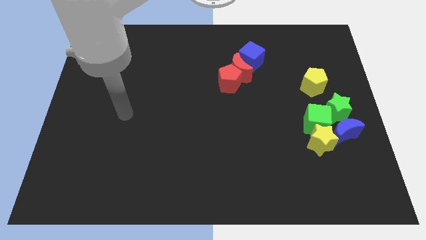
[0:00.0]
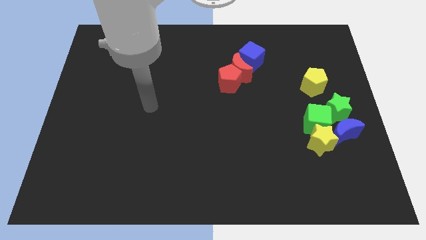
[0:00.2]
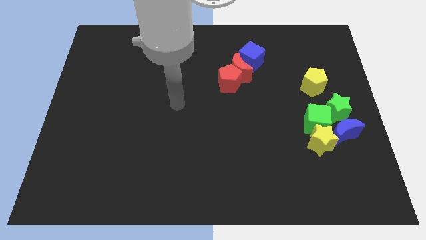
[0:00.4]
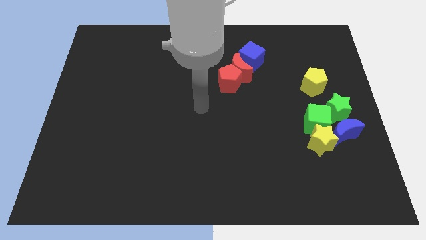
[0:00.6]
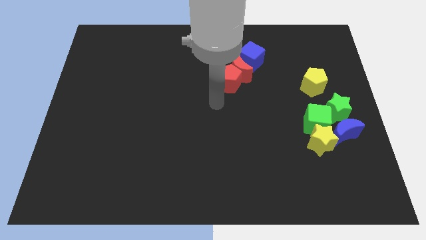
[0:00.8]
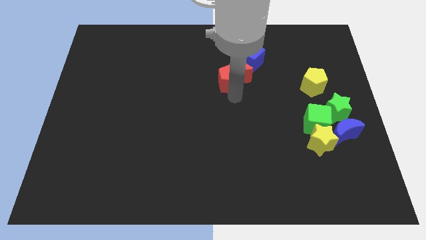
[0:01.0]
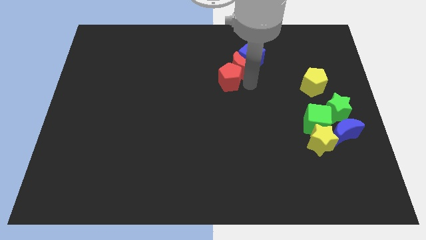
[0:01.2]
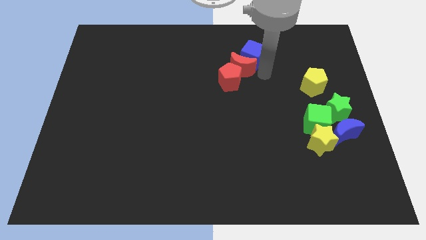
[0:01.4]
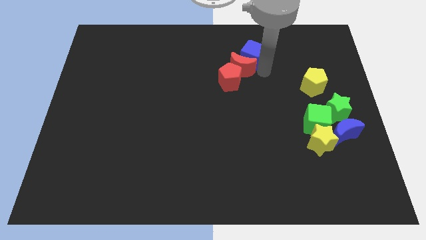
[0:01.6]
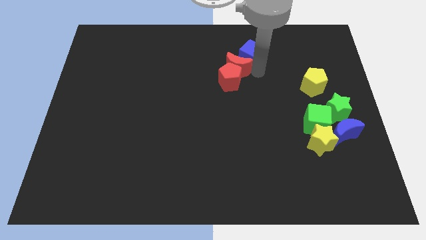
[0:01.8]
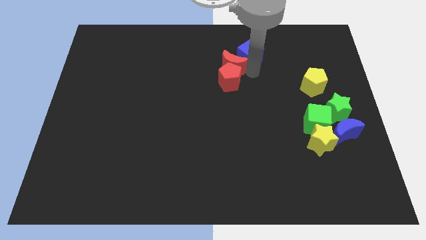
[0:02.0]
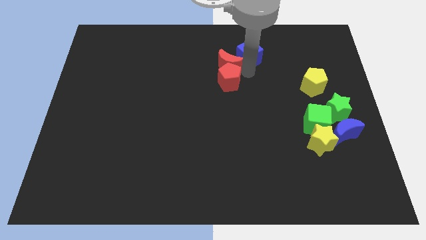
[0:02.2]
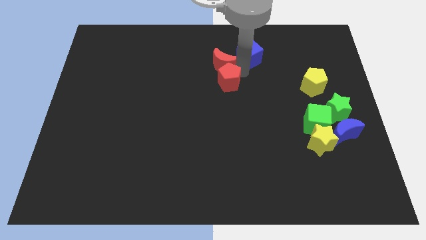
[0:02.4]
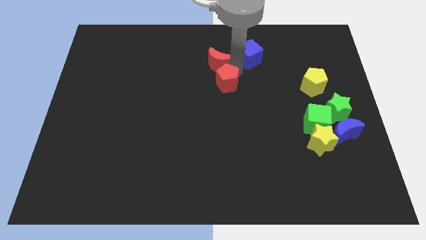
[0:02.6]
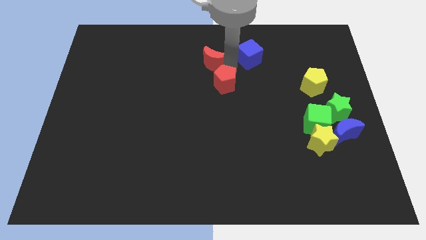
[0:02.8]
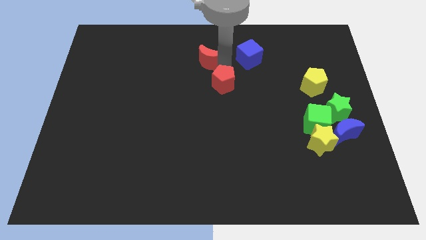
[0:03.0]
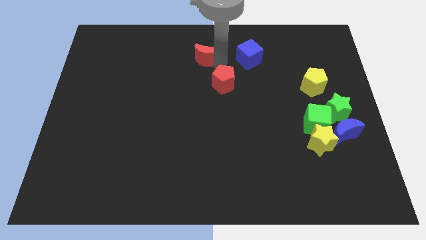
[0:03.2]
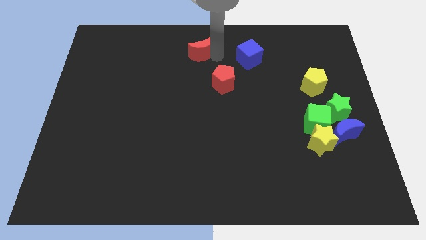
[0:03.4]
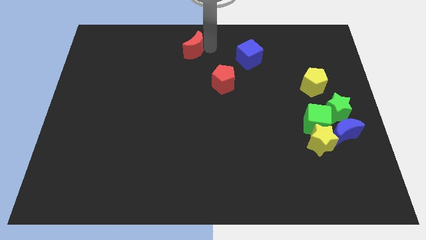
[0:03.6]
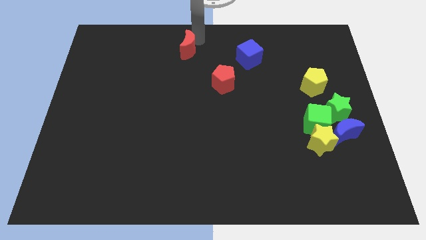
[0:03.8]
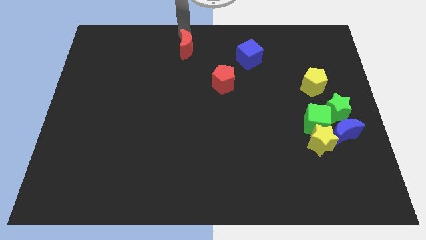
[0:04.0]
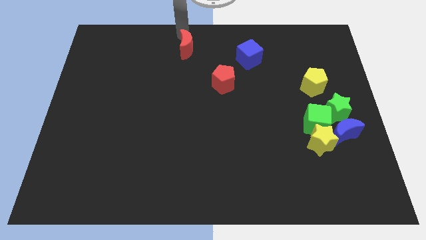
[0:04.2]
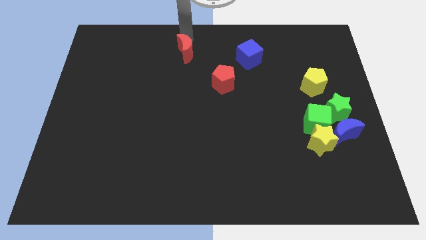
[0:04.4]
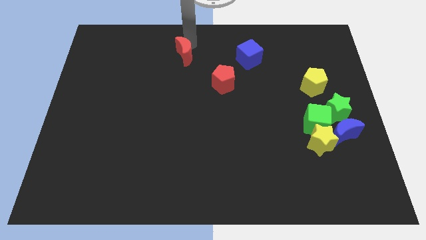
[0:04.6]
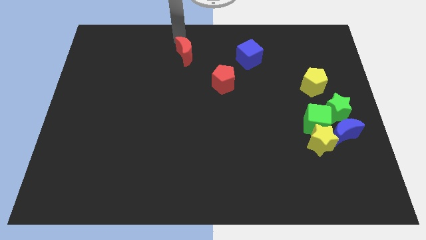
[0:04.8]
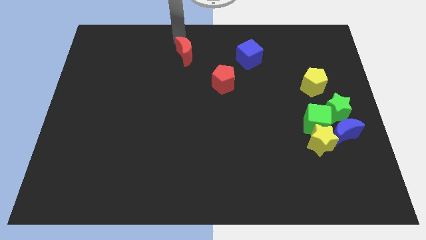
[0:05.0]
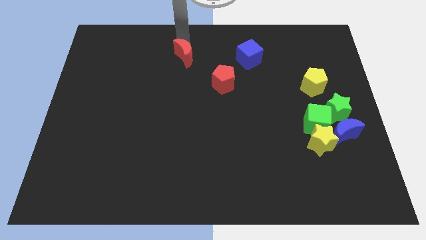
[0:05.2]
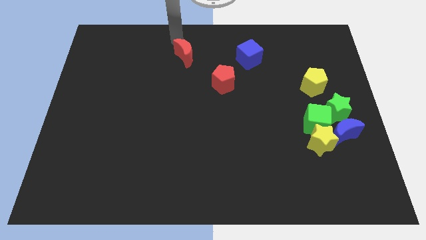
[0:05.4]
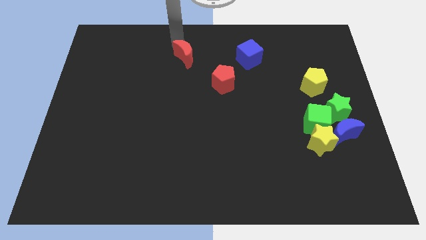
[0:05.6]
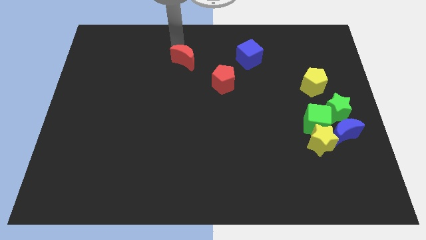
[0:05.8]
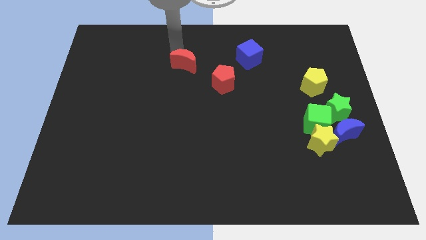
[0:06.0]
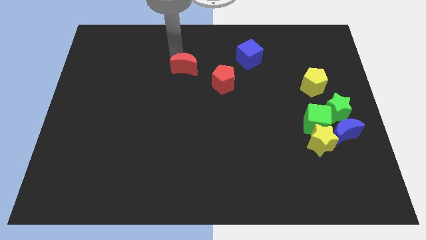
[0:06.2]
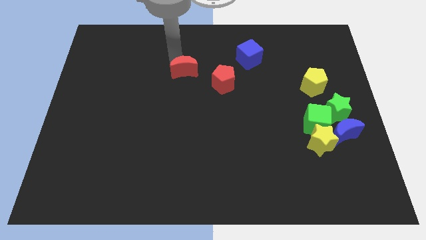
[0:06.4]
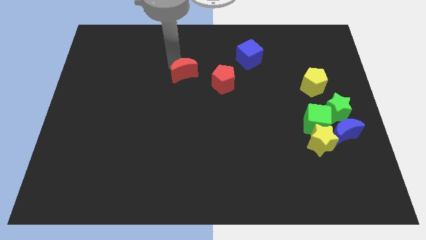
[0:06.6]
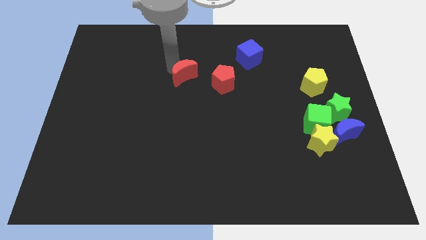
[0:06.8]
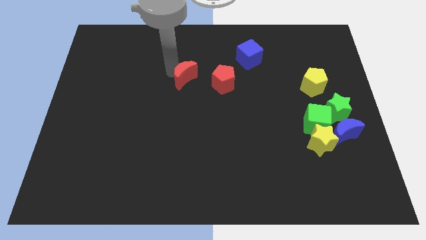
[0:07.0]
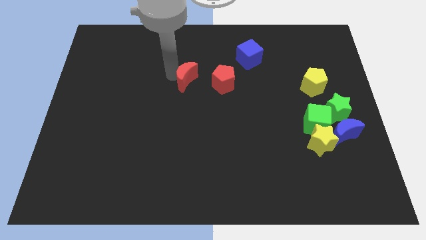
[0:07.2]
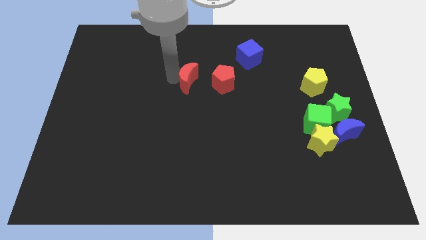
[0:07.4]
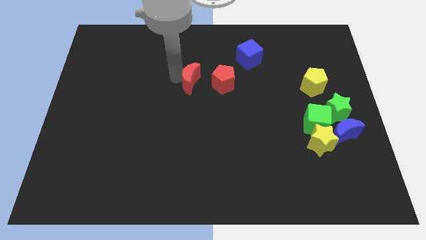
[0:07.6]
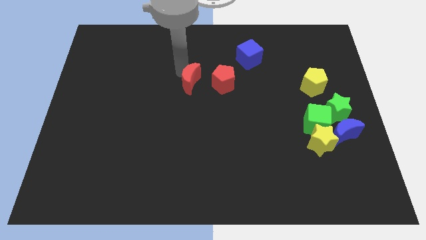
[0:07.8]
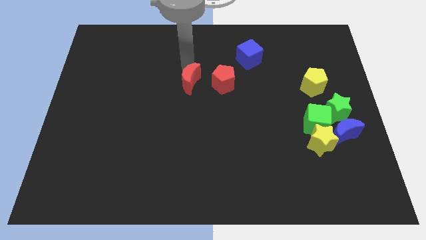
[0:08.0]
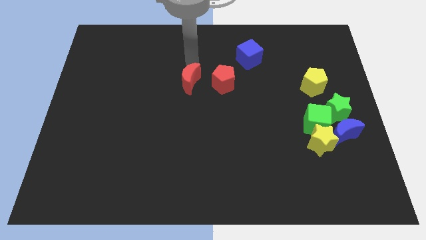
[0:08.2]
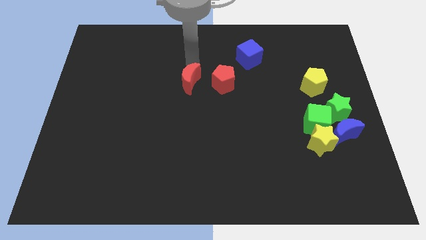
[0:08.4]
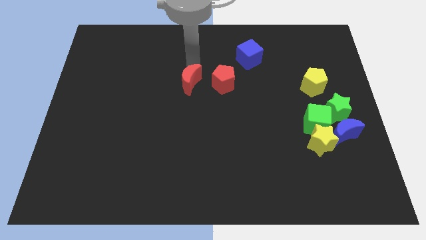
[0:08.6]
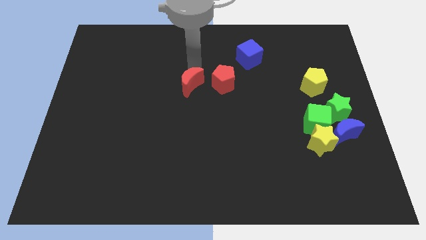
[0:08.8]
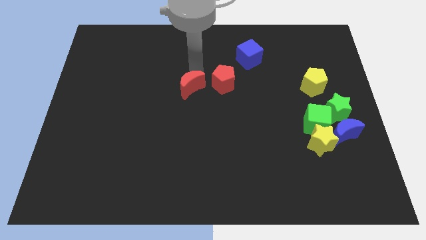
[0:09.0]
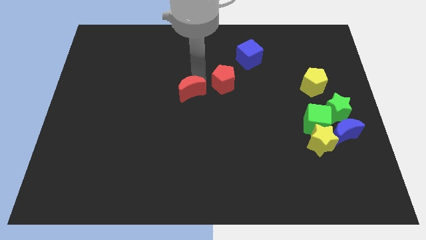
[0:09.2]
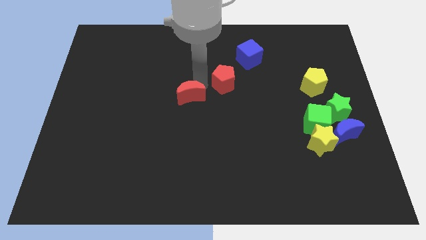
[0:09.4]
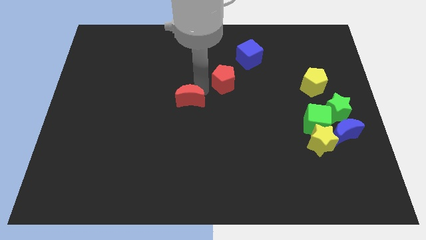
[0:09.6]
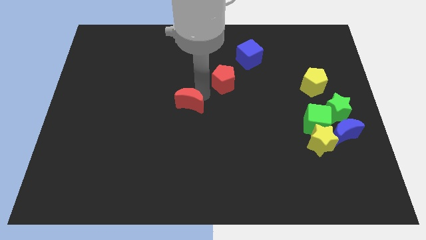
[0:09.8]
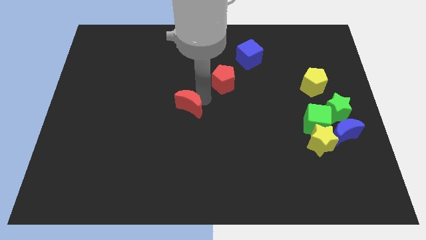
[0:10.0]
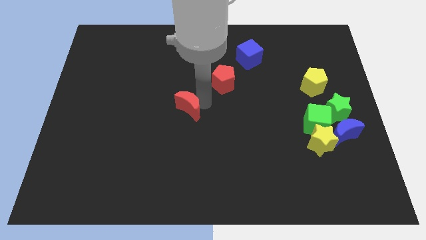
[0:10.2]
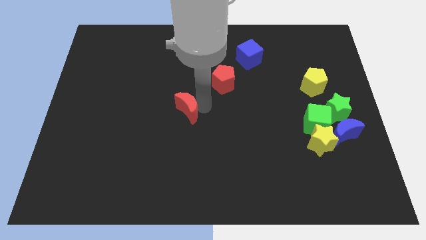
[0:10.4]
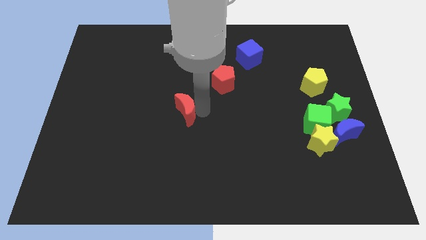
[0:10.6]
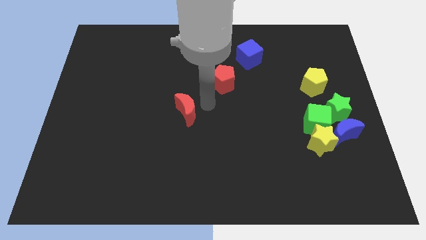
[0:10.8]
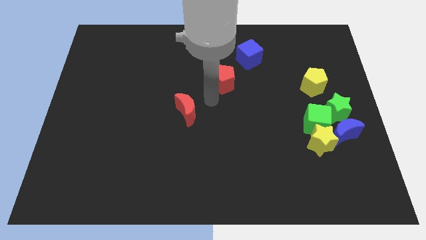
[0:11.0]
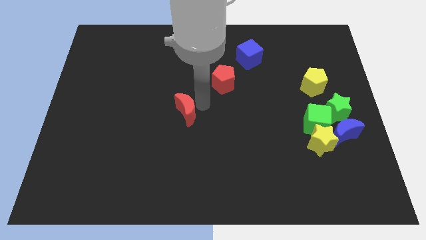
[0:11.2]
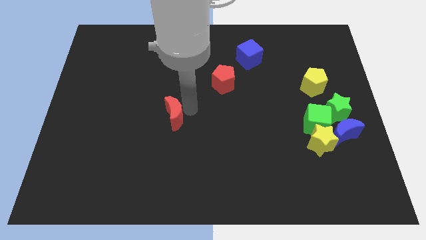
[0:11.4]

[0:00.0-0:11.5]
move the red moon diagonally downwards and left

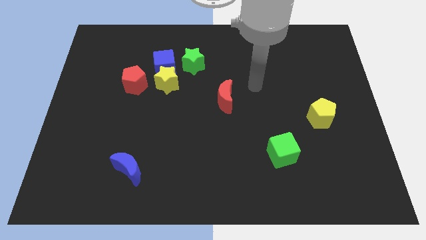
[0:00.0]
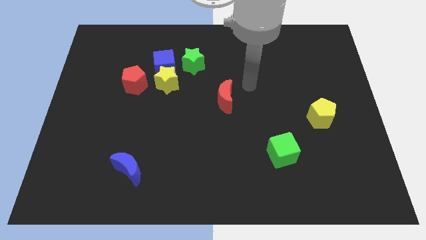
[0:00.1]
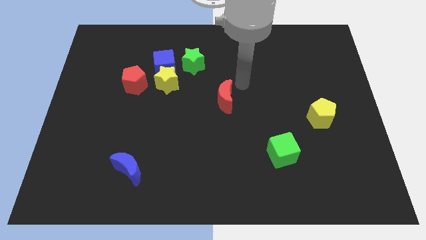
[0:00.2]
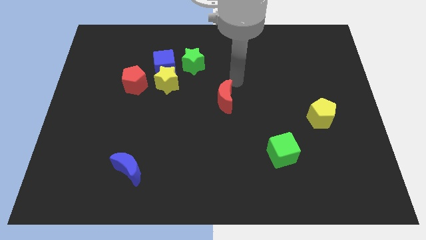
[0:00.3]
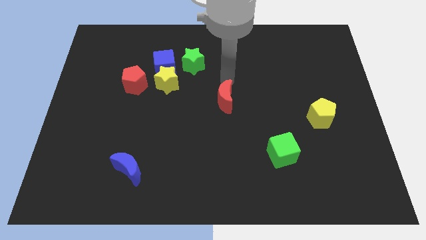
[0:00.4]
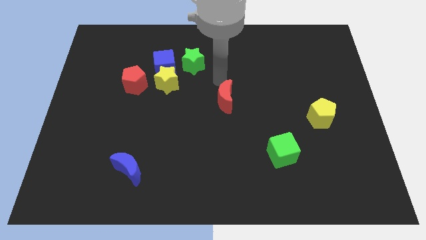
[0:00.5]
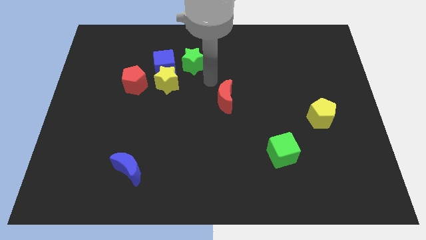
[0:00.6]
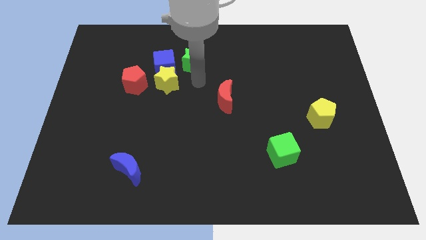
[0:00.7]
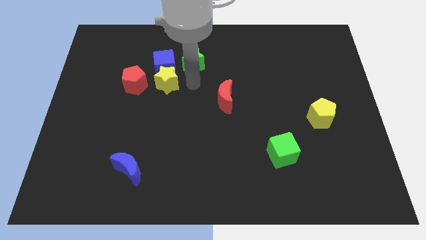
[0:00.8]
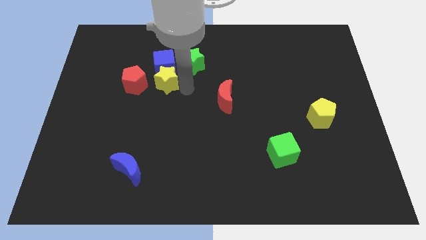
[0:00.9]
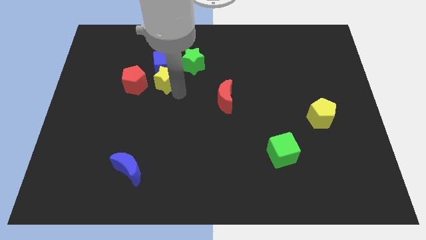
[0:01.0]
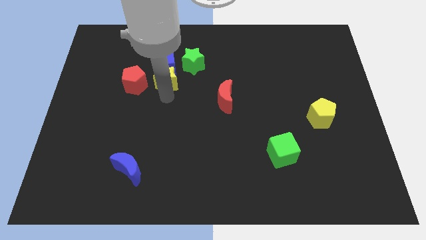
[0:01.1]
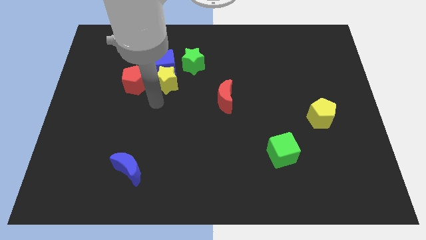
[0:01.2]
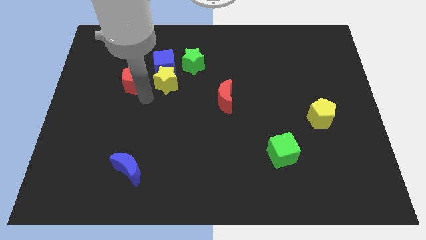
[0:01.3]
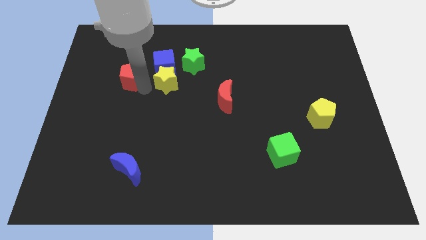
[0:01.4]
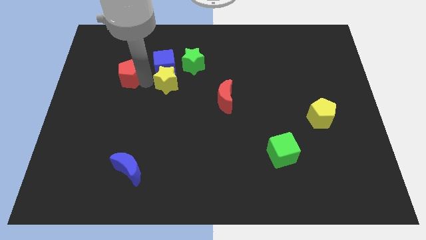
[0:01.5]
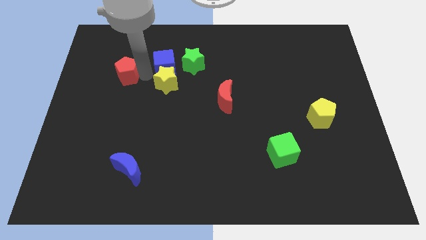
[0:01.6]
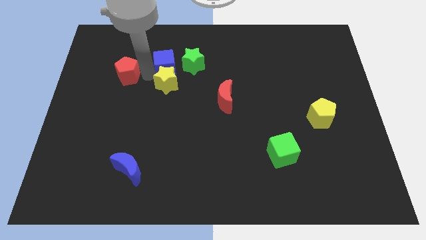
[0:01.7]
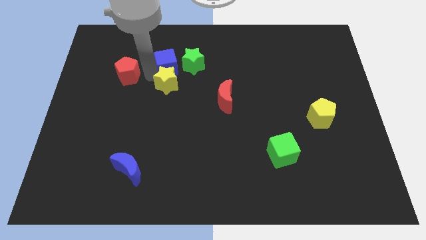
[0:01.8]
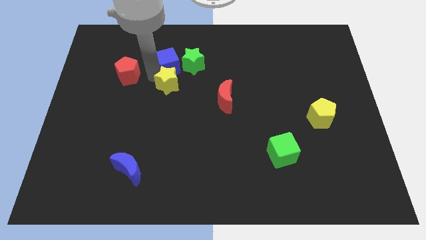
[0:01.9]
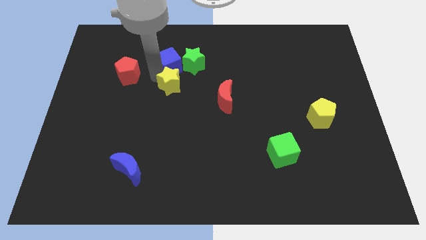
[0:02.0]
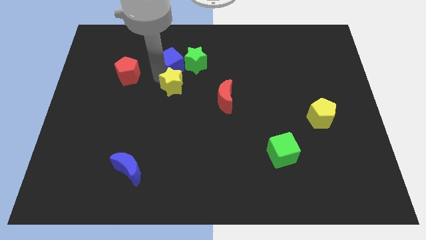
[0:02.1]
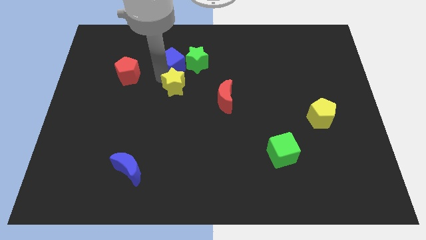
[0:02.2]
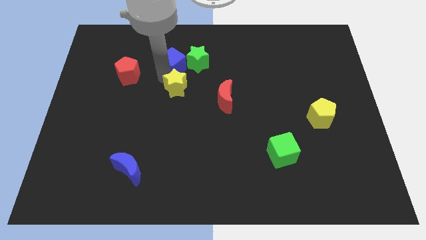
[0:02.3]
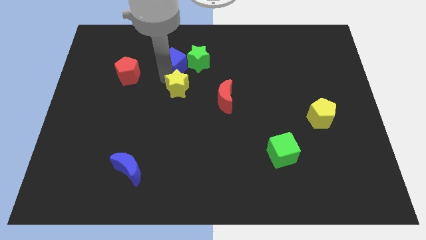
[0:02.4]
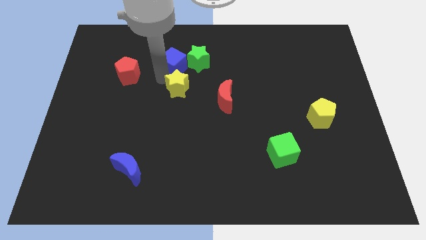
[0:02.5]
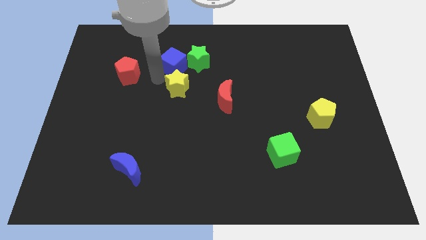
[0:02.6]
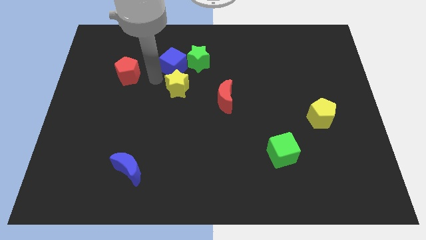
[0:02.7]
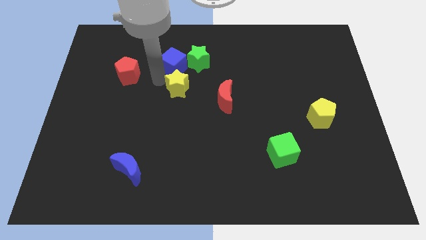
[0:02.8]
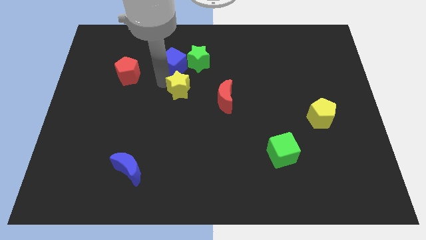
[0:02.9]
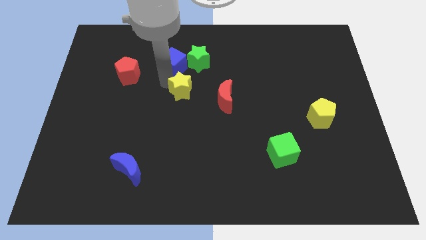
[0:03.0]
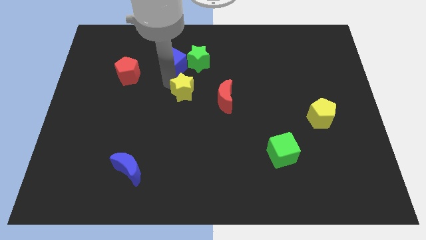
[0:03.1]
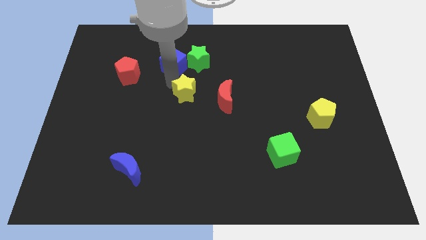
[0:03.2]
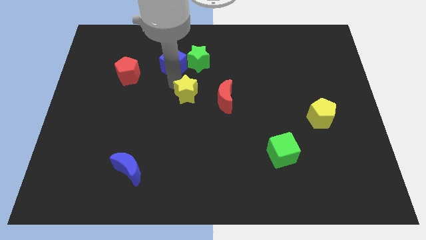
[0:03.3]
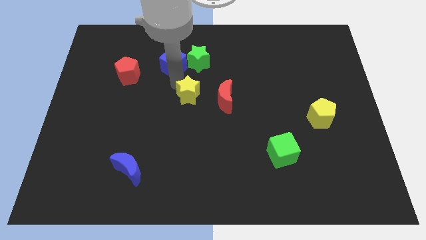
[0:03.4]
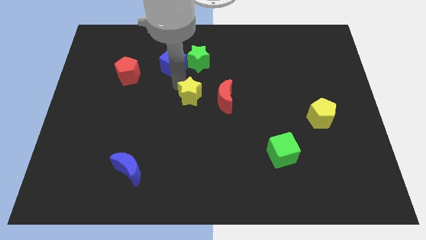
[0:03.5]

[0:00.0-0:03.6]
move the yellow star a little bit downwards and to the right diagonally
